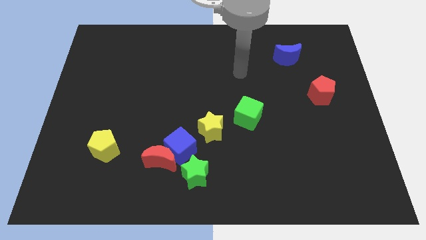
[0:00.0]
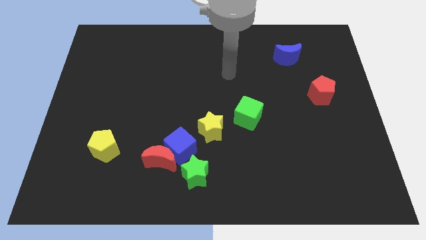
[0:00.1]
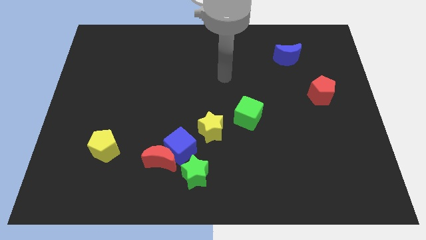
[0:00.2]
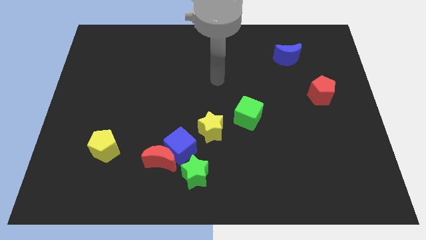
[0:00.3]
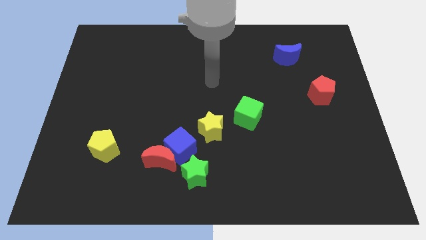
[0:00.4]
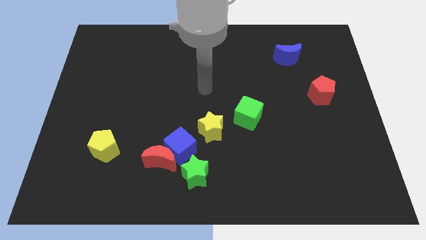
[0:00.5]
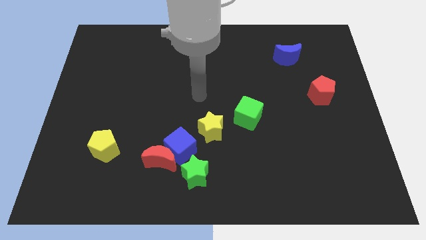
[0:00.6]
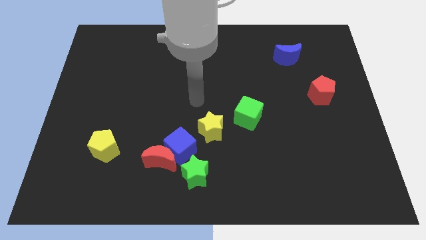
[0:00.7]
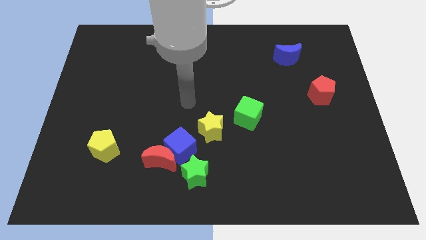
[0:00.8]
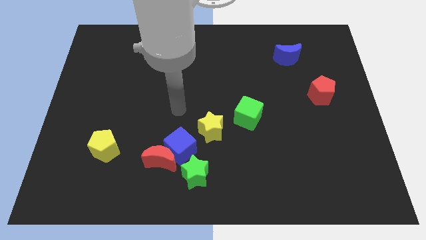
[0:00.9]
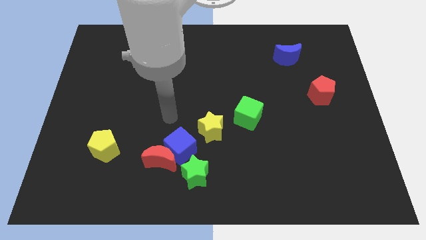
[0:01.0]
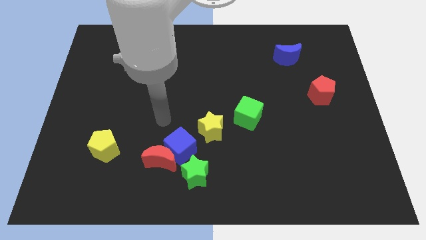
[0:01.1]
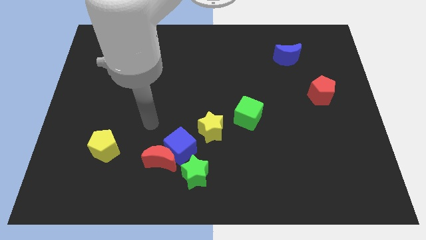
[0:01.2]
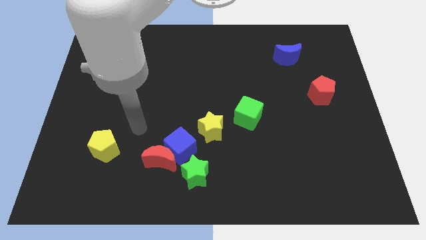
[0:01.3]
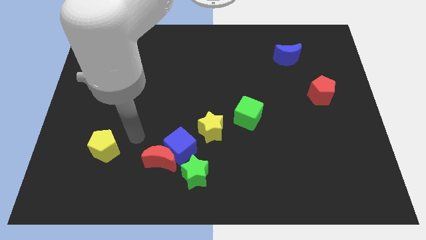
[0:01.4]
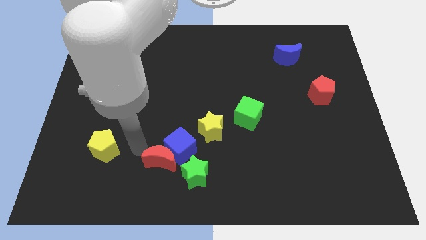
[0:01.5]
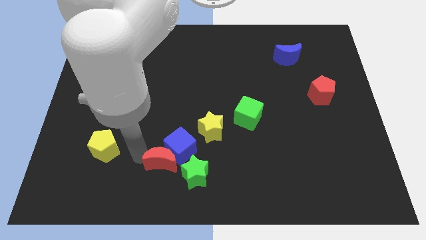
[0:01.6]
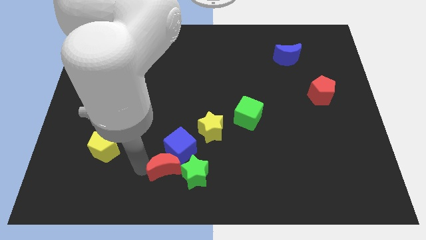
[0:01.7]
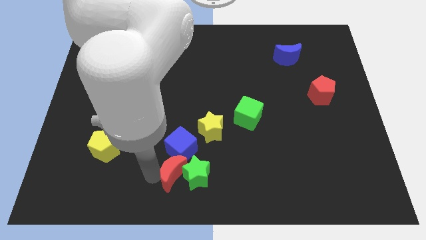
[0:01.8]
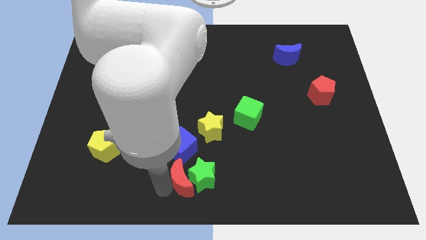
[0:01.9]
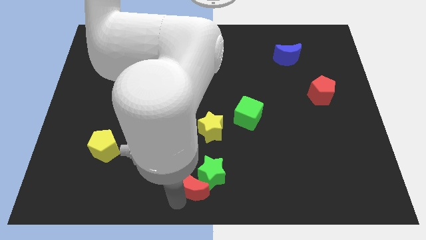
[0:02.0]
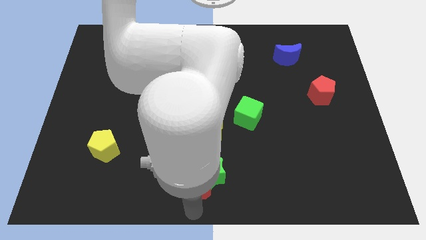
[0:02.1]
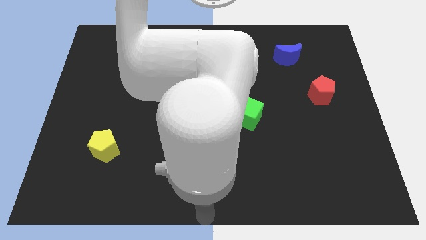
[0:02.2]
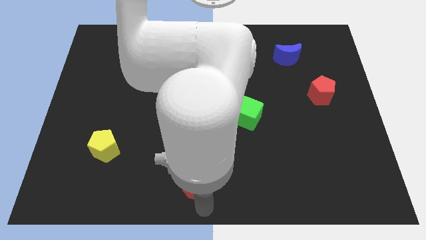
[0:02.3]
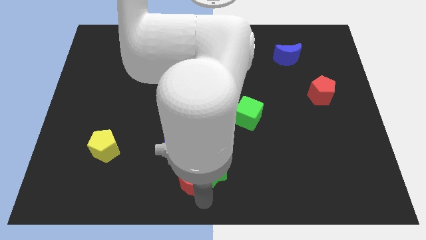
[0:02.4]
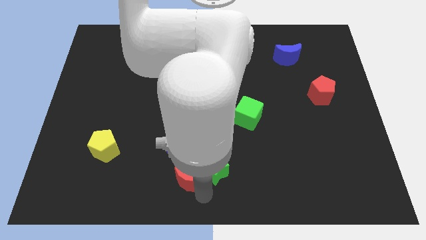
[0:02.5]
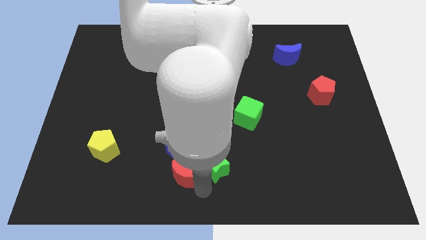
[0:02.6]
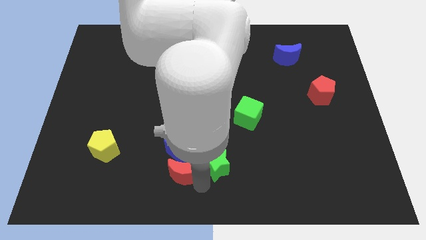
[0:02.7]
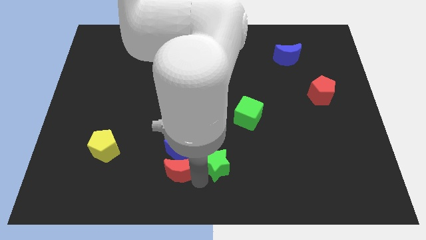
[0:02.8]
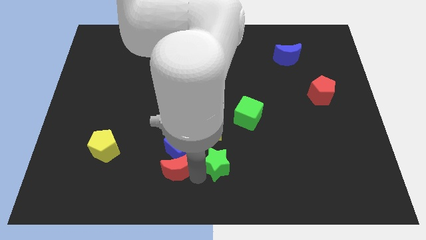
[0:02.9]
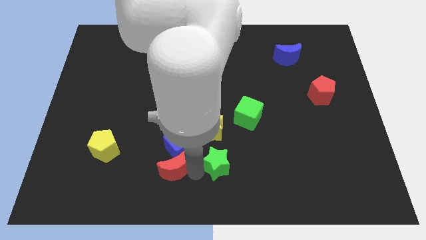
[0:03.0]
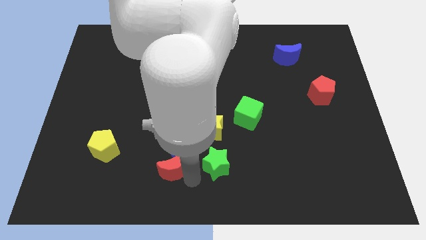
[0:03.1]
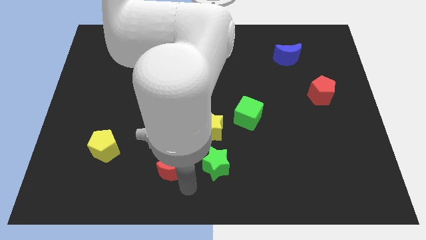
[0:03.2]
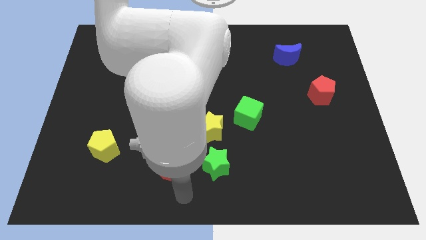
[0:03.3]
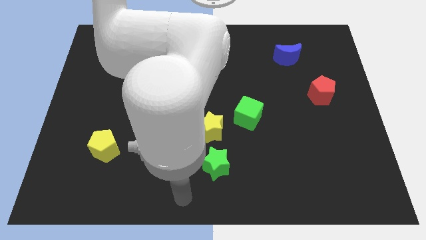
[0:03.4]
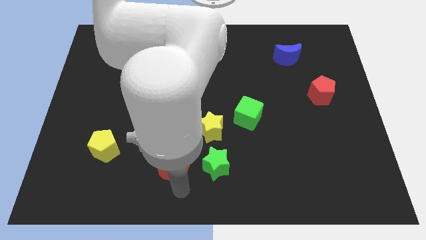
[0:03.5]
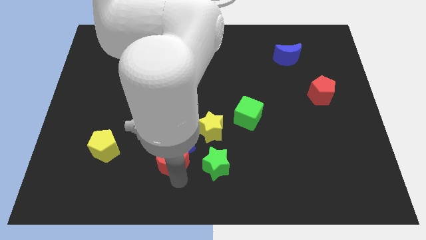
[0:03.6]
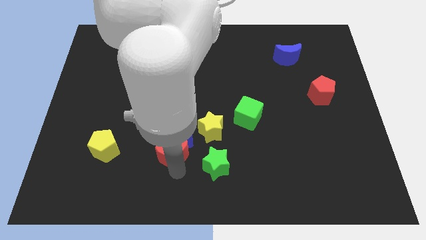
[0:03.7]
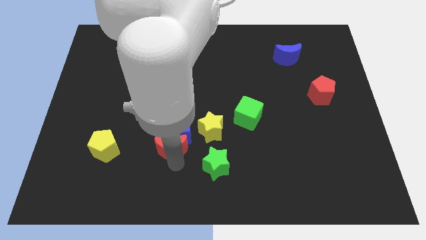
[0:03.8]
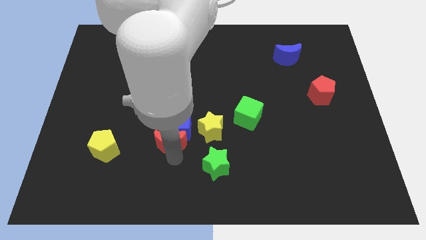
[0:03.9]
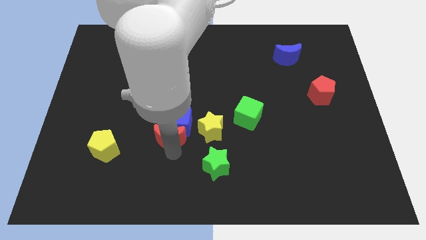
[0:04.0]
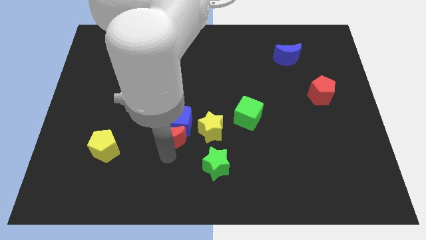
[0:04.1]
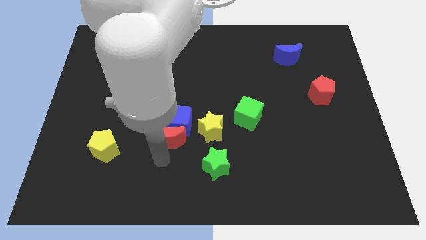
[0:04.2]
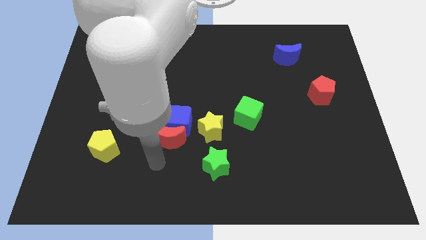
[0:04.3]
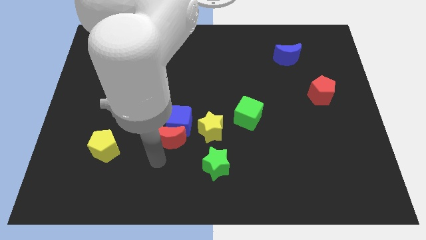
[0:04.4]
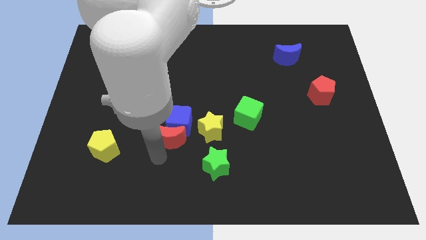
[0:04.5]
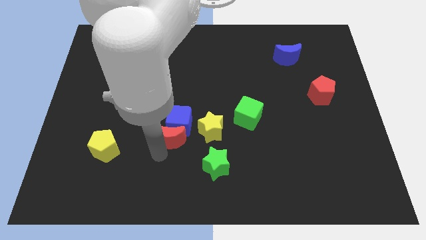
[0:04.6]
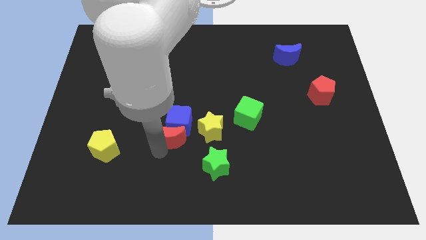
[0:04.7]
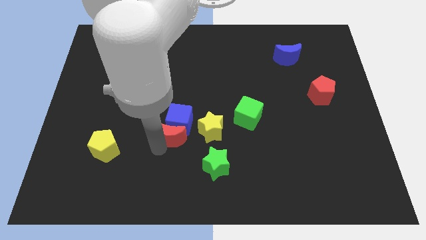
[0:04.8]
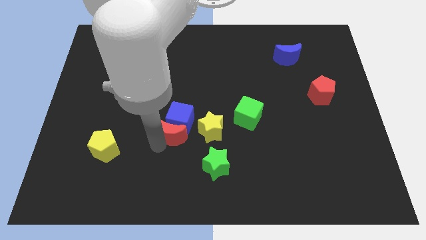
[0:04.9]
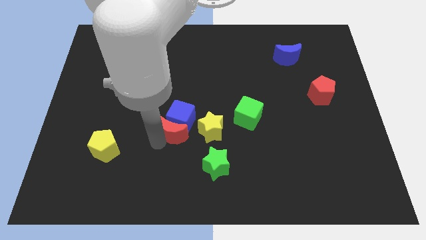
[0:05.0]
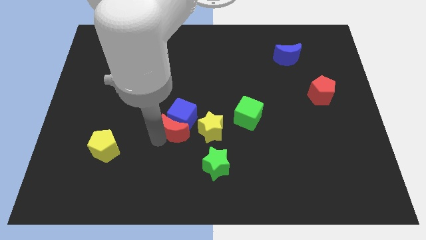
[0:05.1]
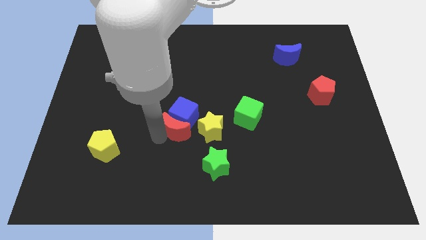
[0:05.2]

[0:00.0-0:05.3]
put the red moon to the middle of the board
